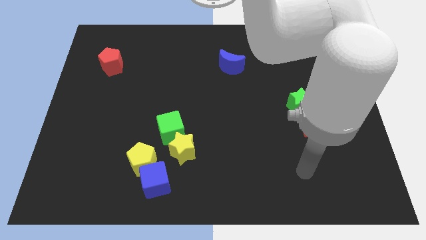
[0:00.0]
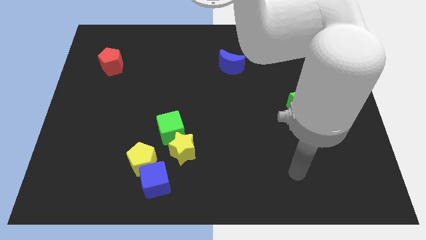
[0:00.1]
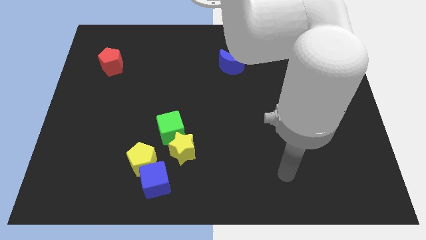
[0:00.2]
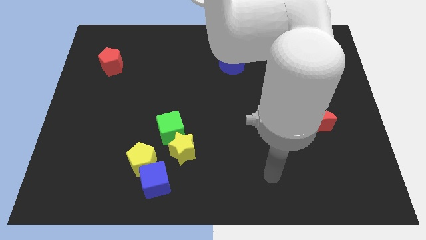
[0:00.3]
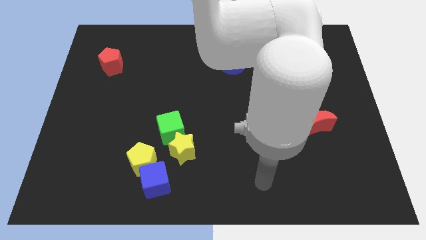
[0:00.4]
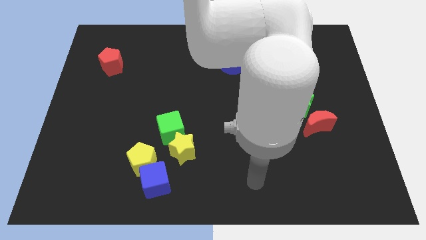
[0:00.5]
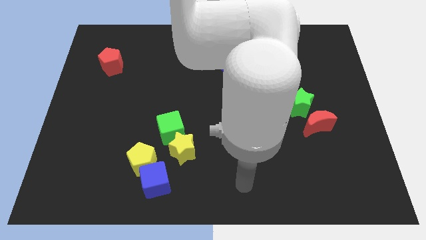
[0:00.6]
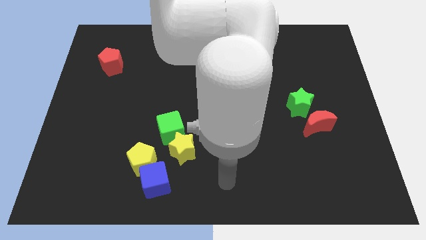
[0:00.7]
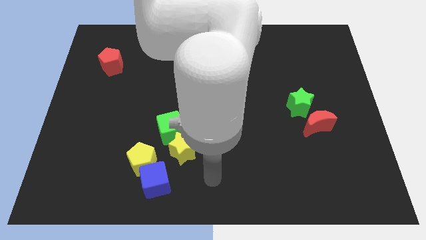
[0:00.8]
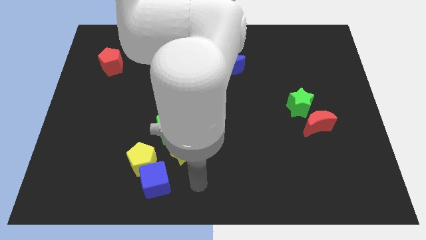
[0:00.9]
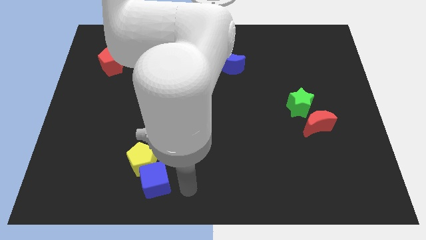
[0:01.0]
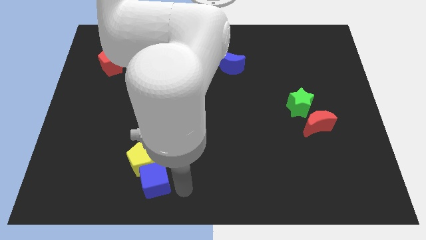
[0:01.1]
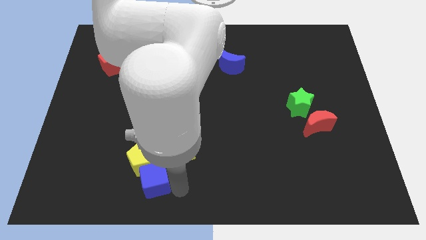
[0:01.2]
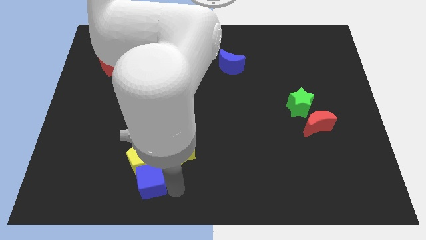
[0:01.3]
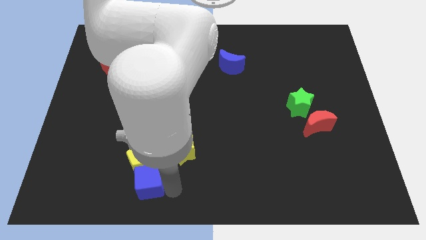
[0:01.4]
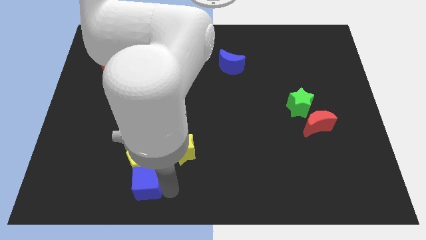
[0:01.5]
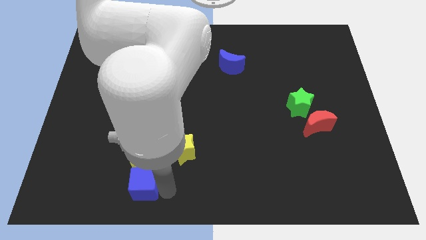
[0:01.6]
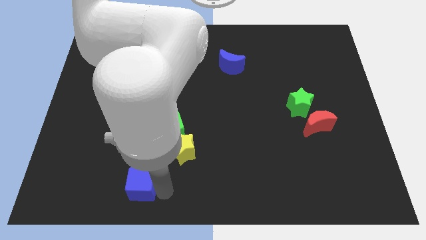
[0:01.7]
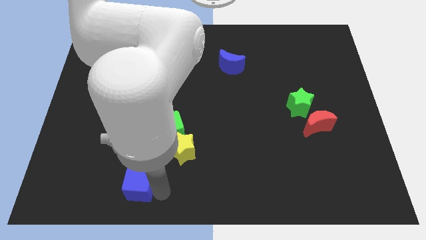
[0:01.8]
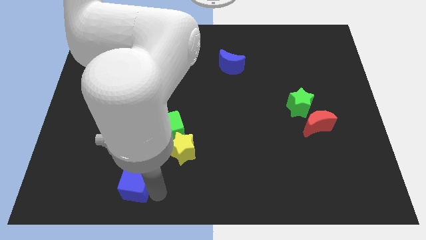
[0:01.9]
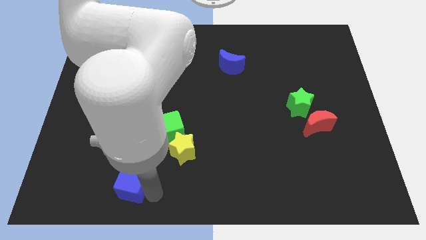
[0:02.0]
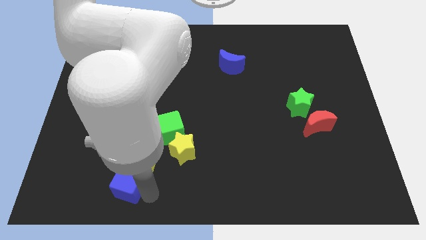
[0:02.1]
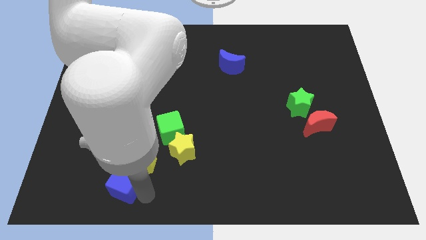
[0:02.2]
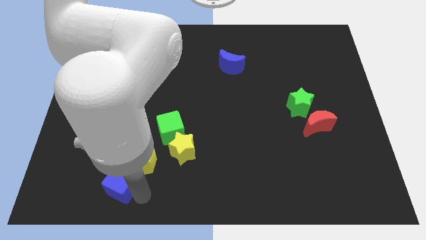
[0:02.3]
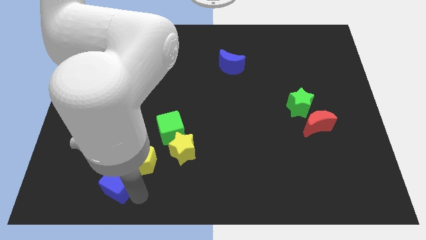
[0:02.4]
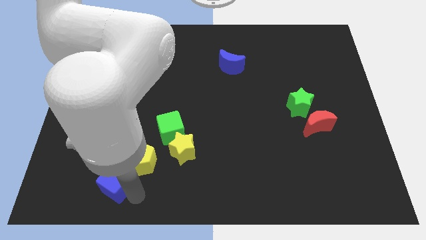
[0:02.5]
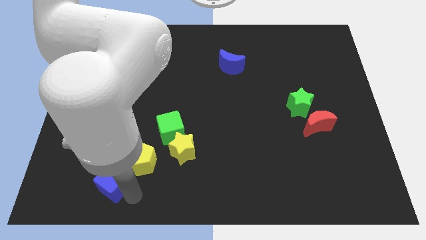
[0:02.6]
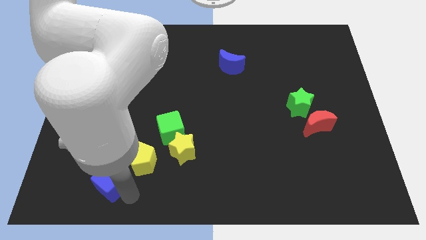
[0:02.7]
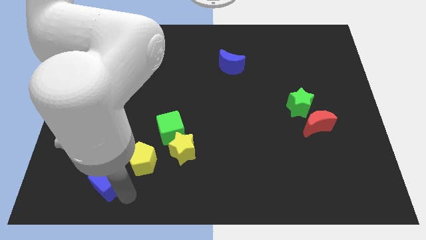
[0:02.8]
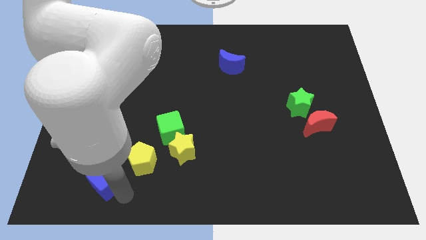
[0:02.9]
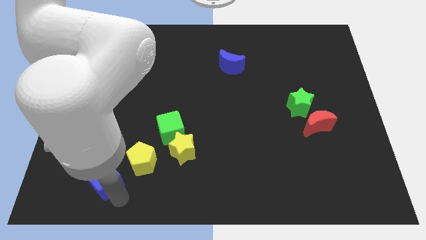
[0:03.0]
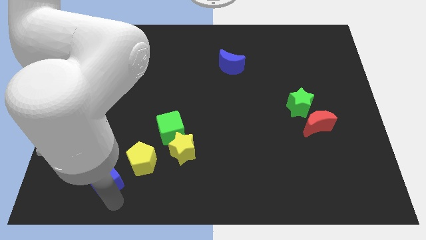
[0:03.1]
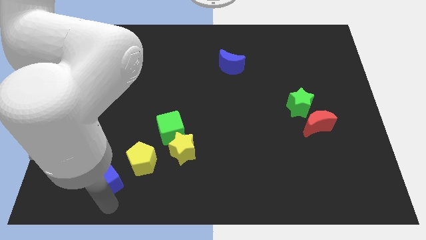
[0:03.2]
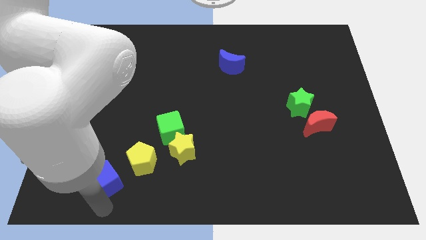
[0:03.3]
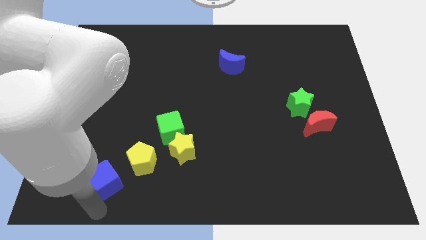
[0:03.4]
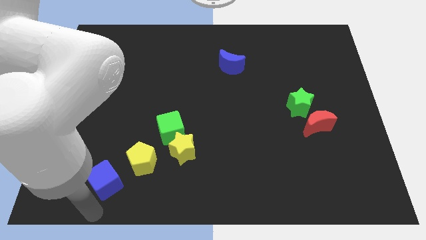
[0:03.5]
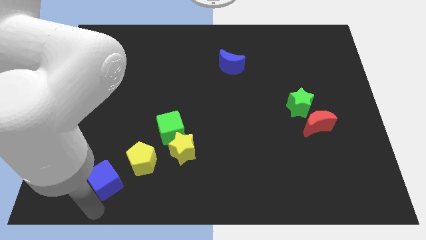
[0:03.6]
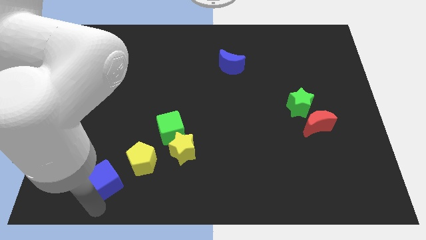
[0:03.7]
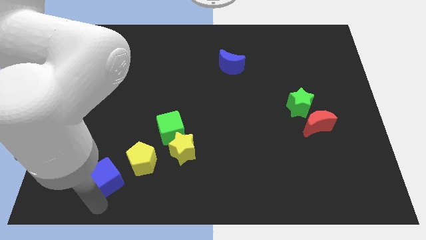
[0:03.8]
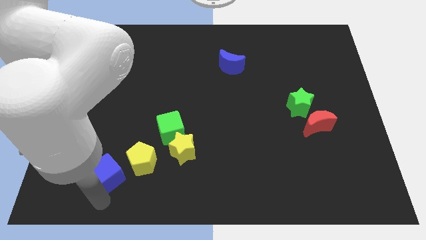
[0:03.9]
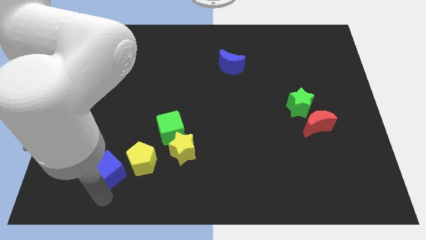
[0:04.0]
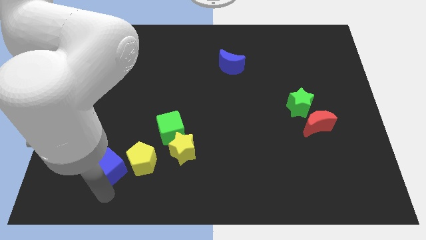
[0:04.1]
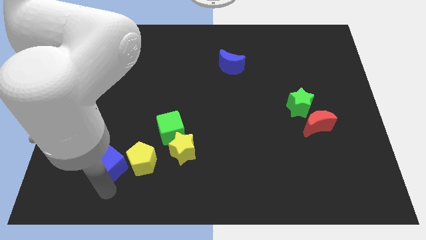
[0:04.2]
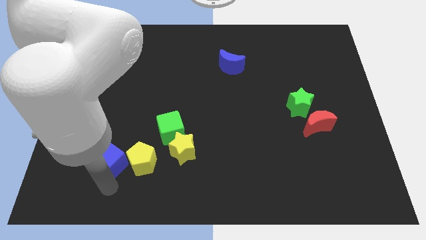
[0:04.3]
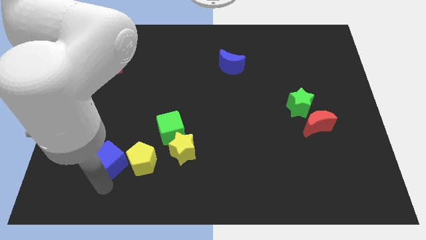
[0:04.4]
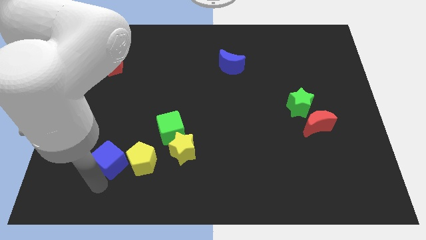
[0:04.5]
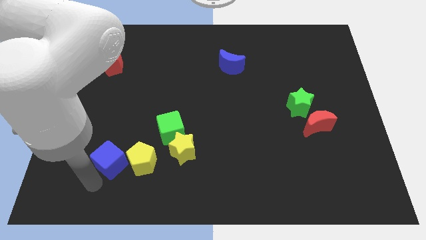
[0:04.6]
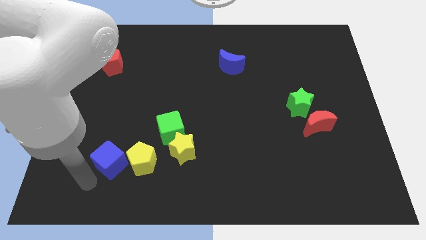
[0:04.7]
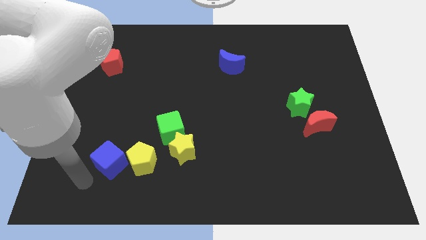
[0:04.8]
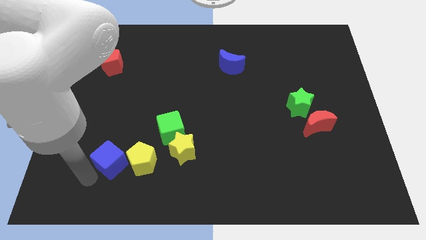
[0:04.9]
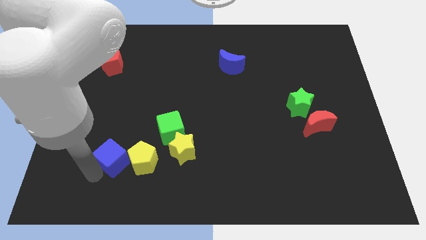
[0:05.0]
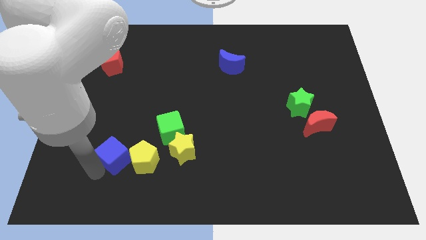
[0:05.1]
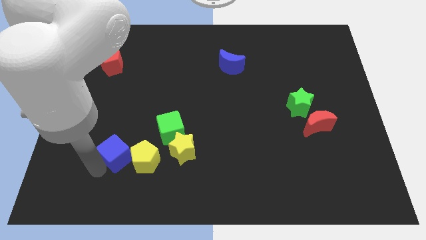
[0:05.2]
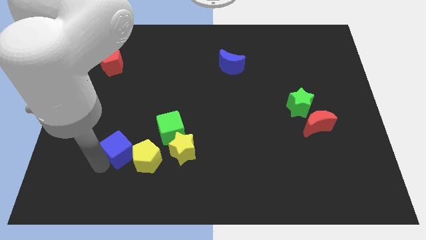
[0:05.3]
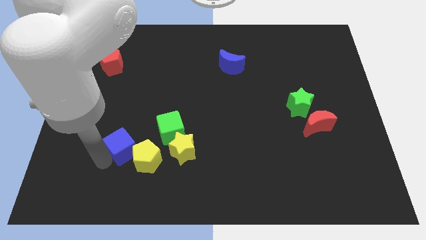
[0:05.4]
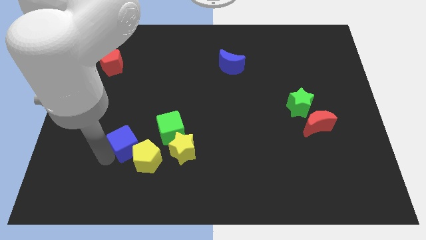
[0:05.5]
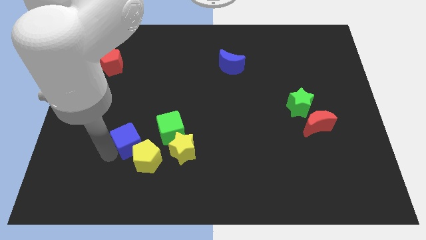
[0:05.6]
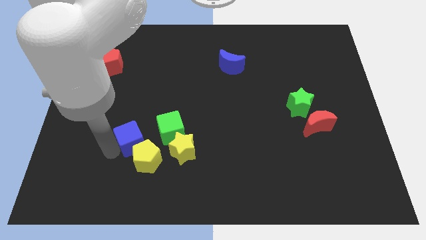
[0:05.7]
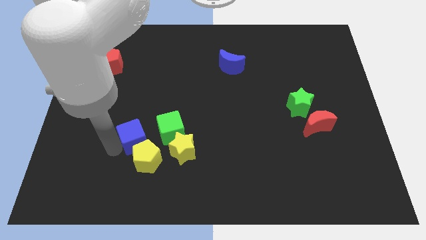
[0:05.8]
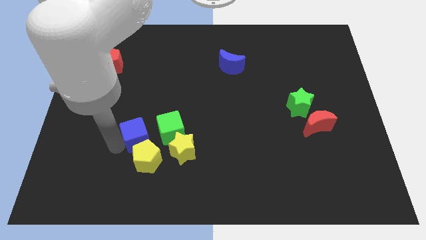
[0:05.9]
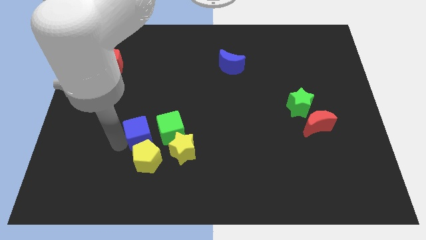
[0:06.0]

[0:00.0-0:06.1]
push the blue cube diagonally up and to the left of the yellow star
